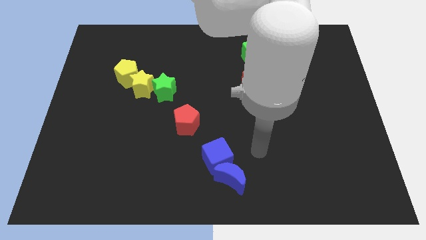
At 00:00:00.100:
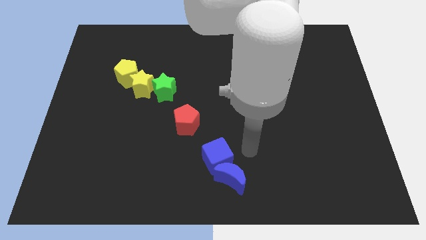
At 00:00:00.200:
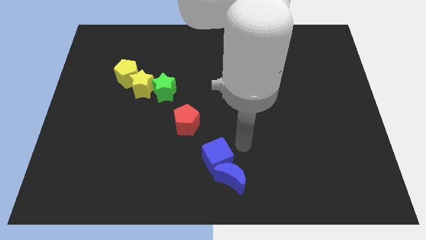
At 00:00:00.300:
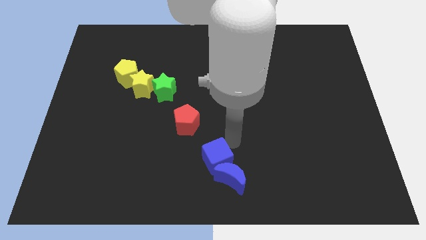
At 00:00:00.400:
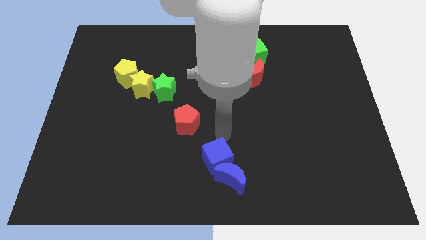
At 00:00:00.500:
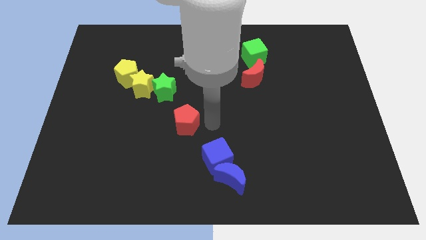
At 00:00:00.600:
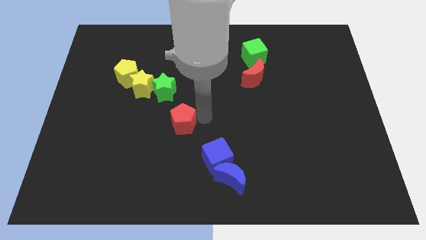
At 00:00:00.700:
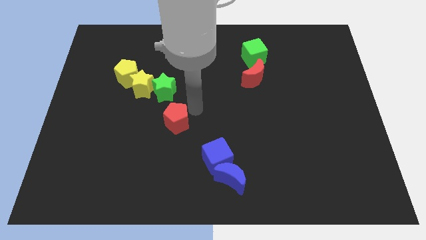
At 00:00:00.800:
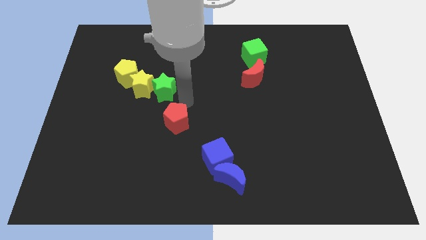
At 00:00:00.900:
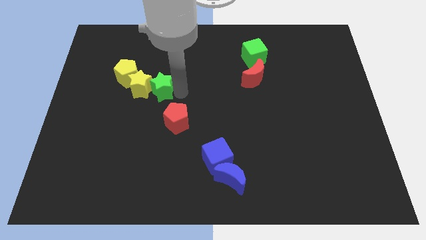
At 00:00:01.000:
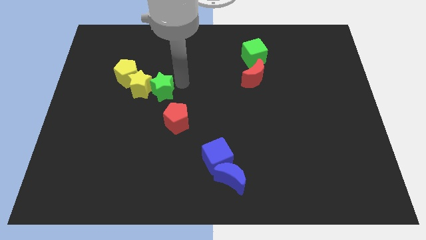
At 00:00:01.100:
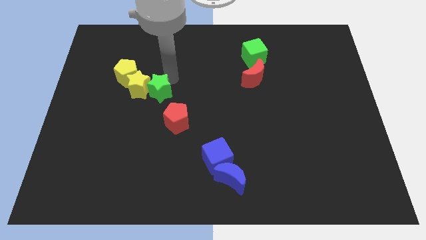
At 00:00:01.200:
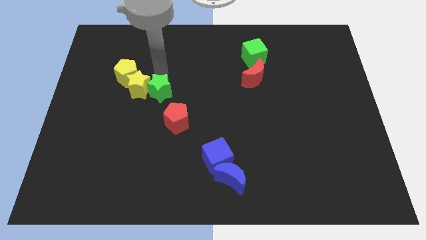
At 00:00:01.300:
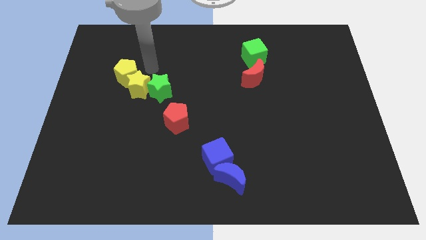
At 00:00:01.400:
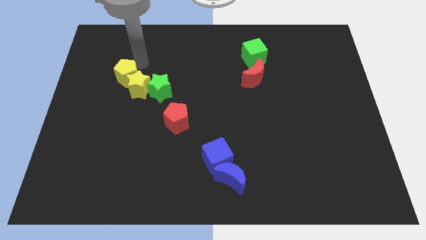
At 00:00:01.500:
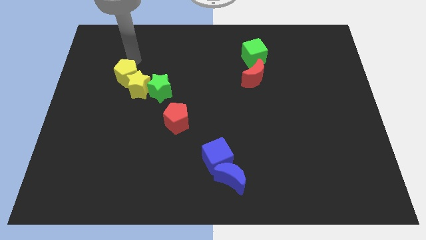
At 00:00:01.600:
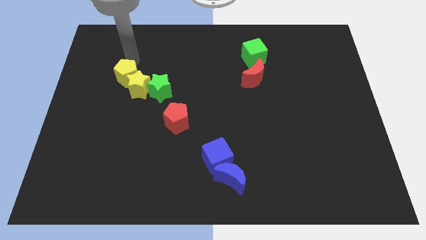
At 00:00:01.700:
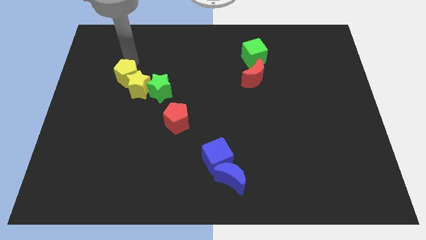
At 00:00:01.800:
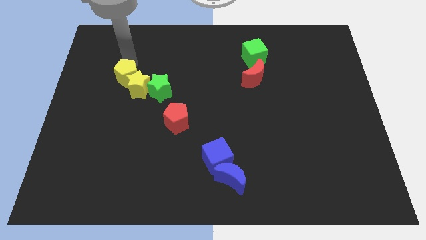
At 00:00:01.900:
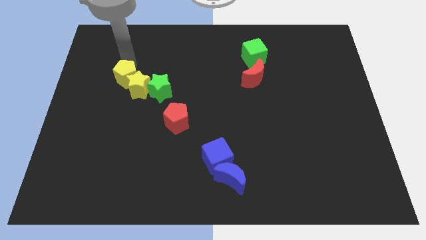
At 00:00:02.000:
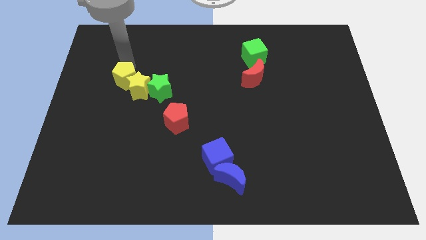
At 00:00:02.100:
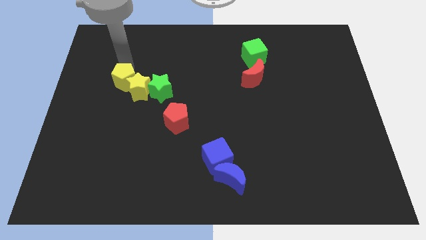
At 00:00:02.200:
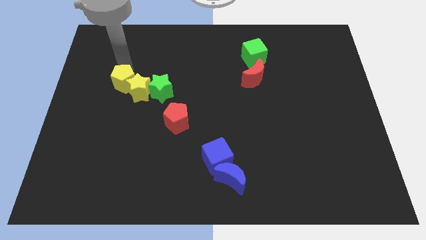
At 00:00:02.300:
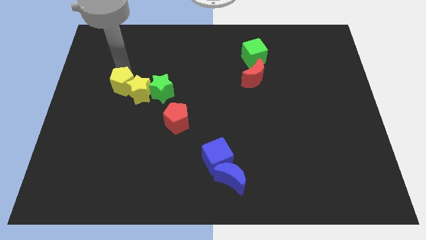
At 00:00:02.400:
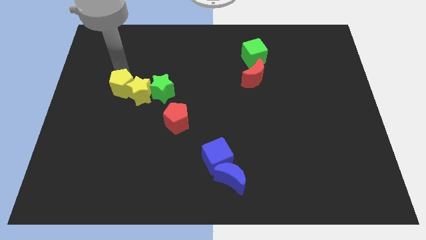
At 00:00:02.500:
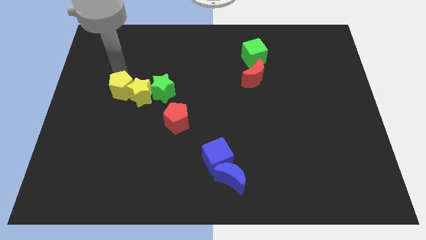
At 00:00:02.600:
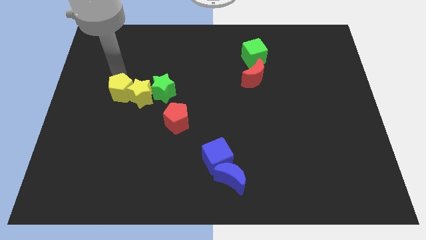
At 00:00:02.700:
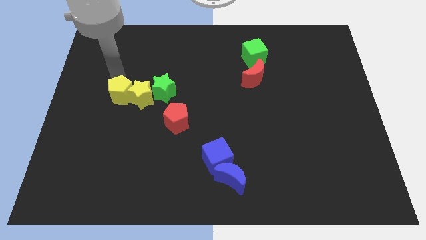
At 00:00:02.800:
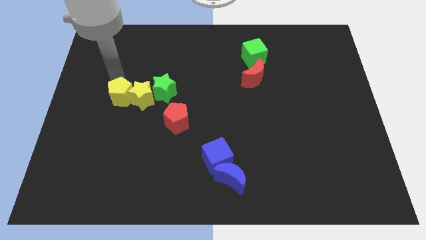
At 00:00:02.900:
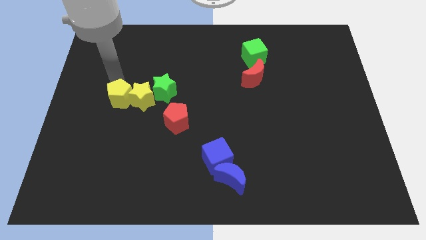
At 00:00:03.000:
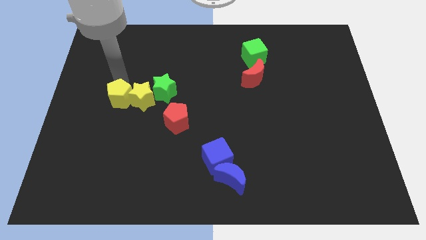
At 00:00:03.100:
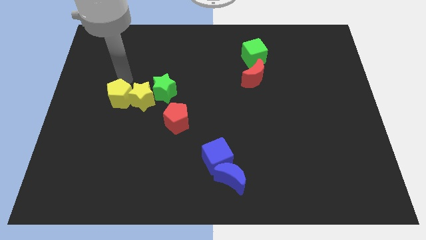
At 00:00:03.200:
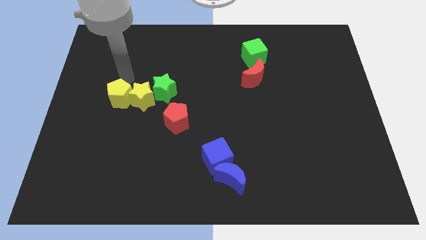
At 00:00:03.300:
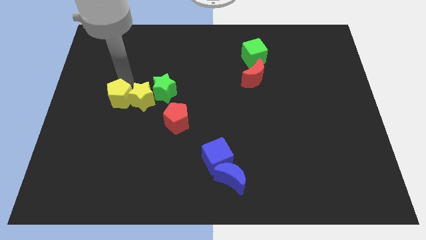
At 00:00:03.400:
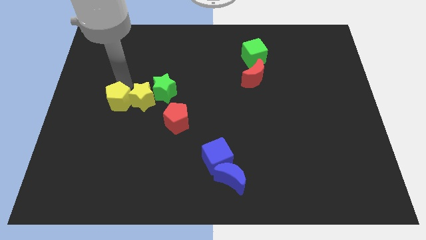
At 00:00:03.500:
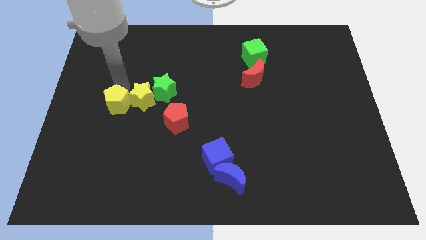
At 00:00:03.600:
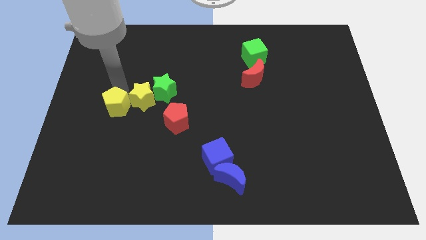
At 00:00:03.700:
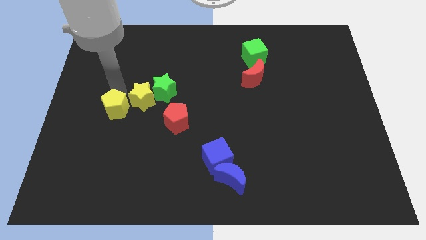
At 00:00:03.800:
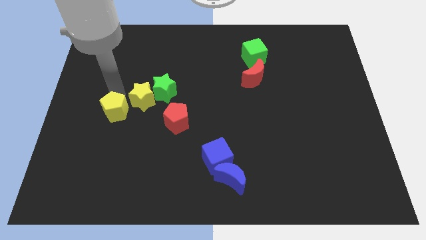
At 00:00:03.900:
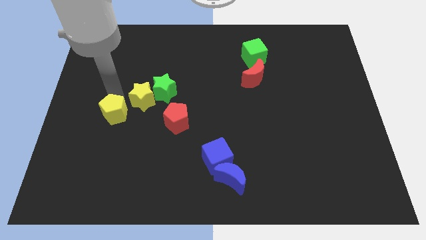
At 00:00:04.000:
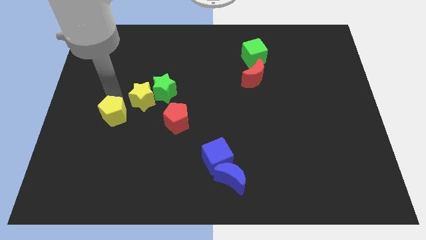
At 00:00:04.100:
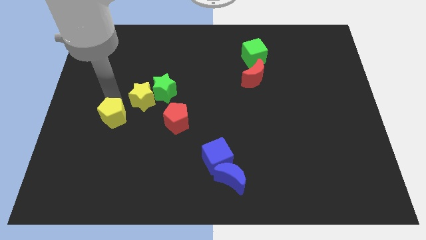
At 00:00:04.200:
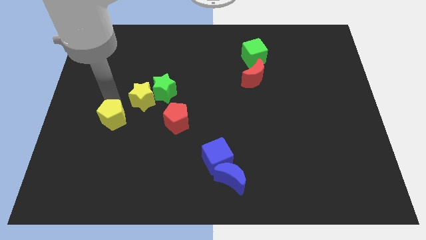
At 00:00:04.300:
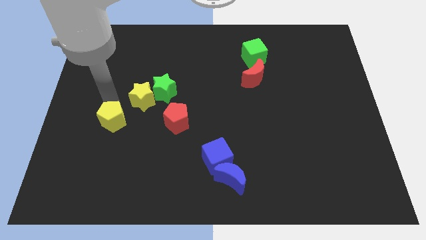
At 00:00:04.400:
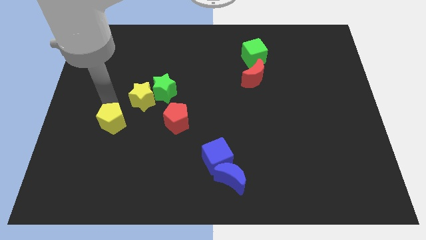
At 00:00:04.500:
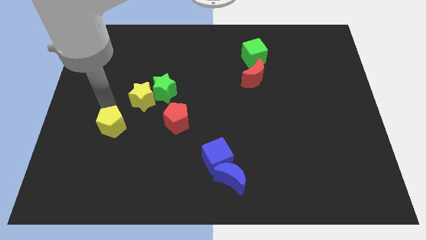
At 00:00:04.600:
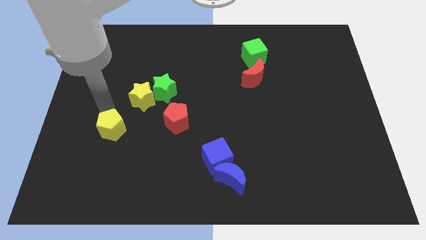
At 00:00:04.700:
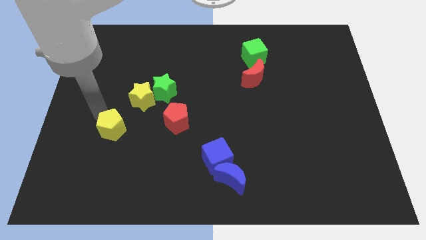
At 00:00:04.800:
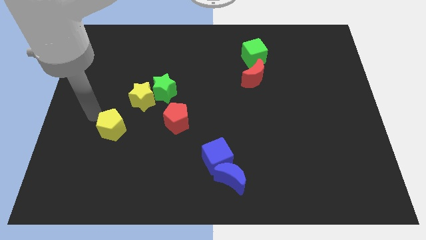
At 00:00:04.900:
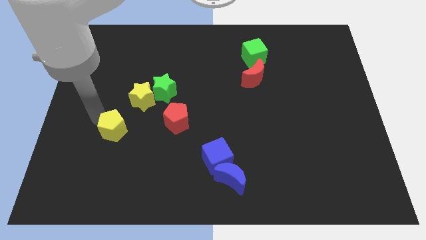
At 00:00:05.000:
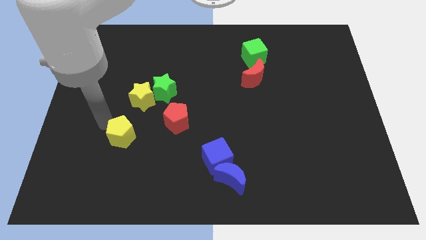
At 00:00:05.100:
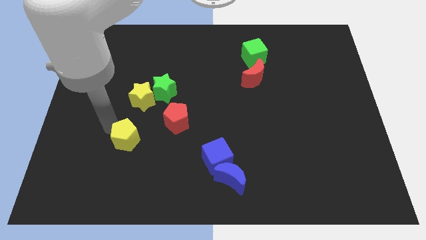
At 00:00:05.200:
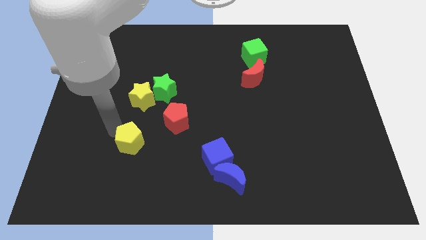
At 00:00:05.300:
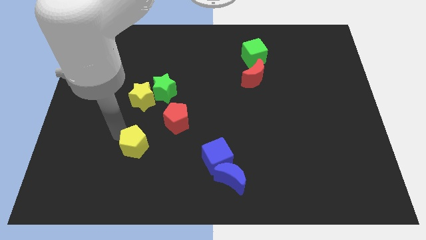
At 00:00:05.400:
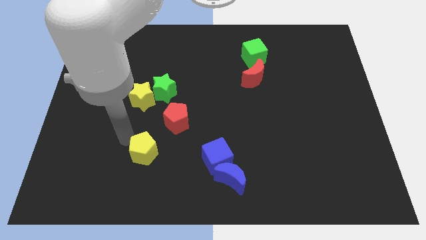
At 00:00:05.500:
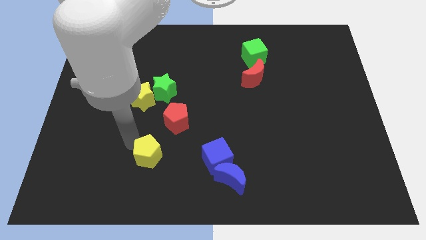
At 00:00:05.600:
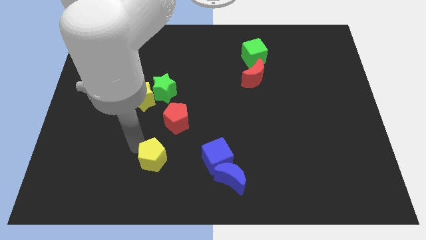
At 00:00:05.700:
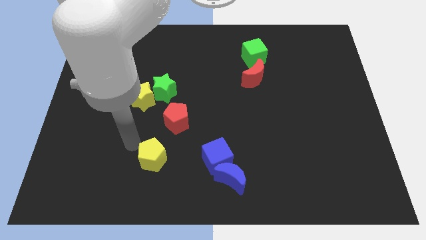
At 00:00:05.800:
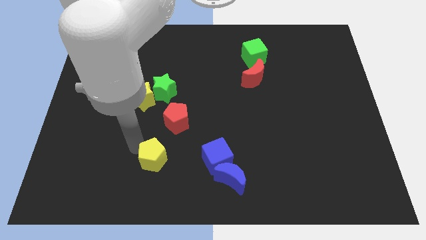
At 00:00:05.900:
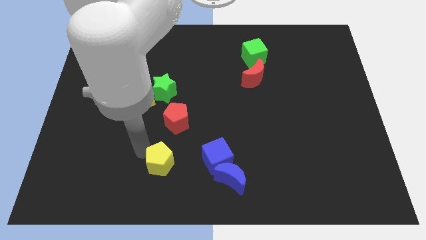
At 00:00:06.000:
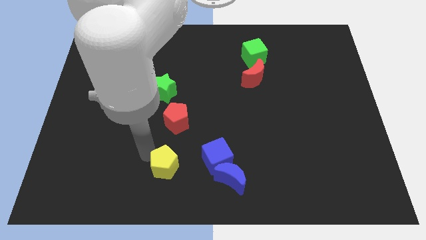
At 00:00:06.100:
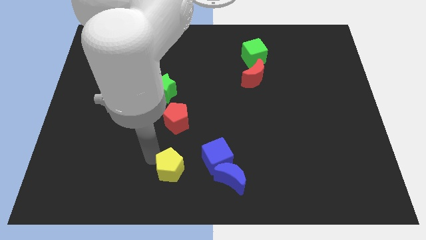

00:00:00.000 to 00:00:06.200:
put the yellow pentagon to the bottom

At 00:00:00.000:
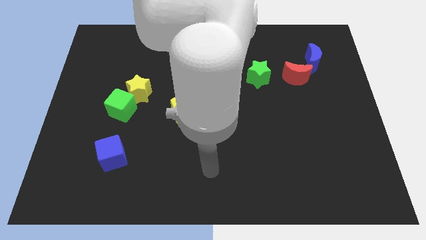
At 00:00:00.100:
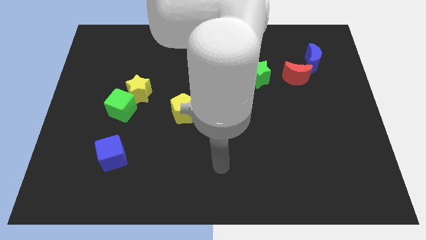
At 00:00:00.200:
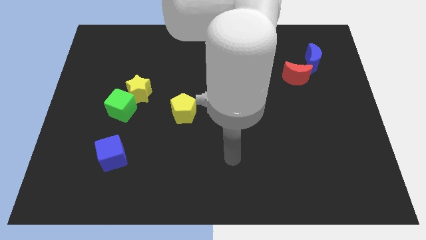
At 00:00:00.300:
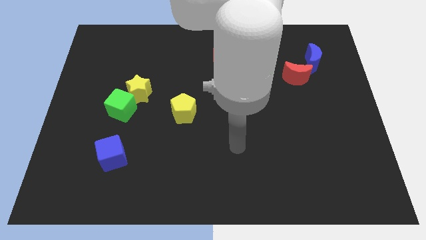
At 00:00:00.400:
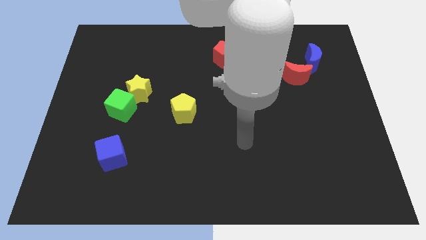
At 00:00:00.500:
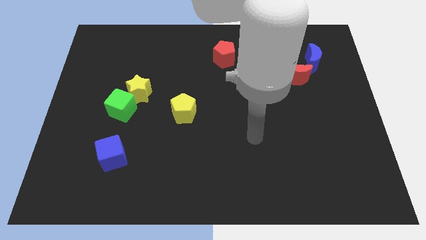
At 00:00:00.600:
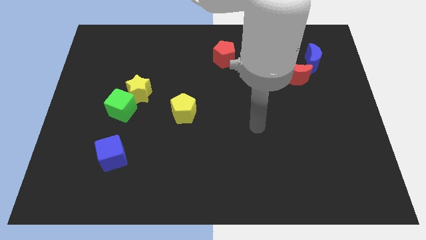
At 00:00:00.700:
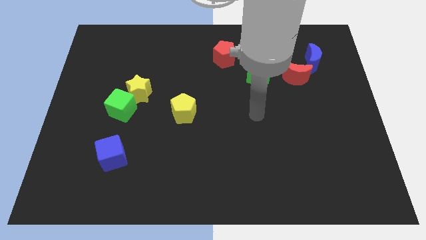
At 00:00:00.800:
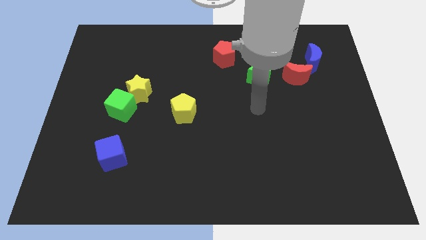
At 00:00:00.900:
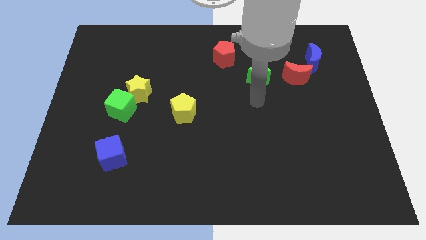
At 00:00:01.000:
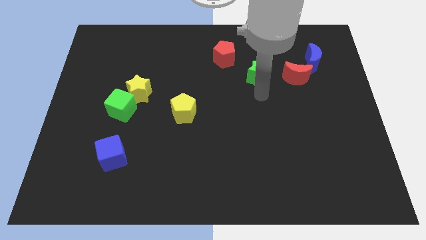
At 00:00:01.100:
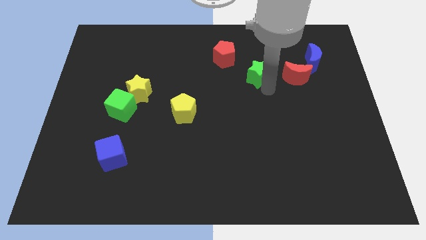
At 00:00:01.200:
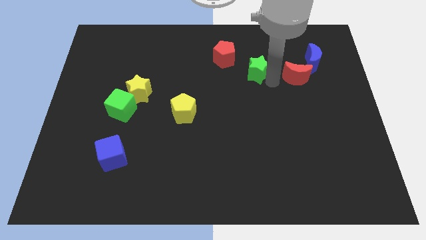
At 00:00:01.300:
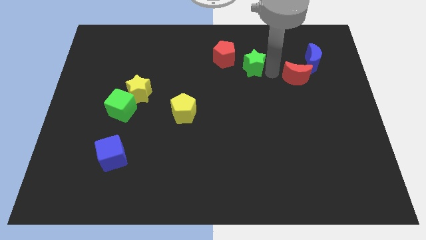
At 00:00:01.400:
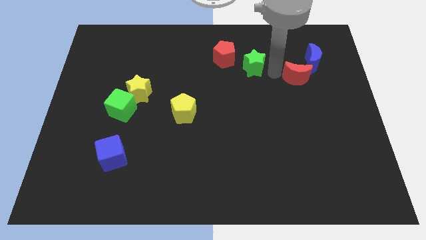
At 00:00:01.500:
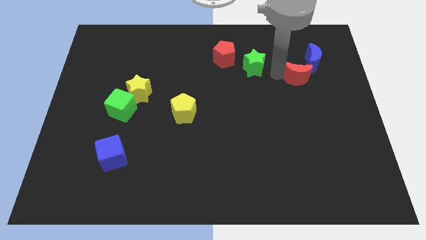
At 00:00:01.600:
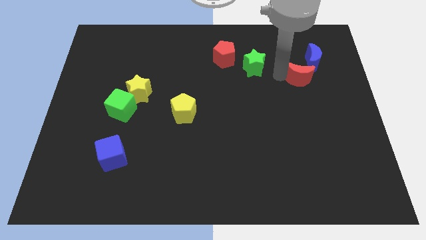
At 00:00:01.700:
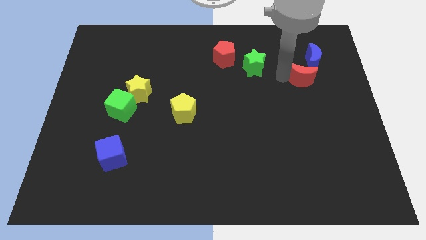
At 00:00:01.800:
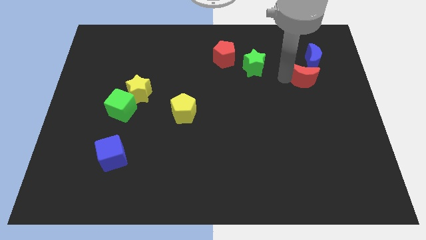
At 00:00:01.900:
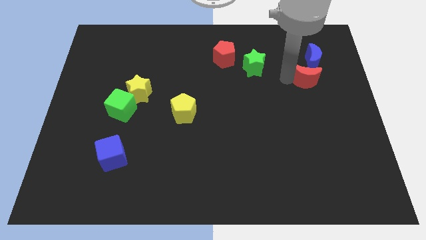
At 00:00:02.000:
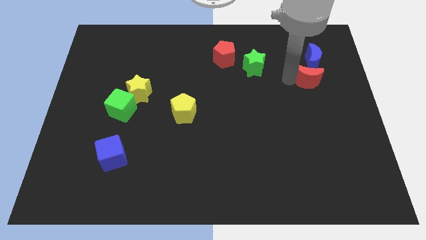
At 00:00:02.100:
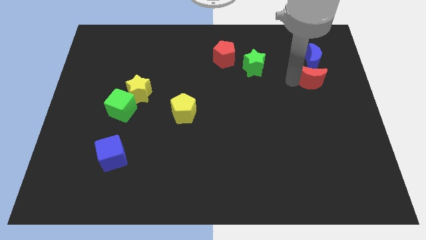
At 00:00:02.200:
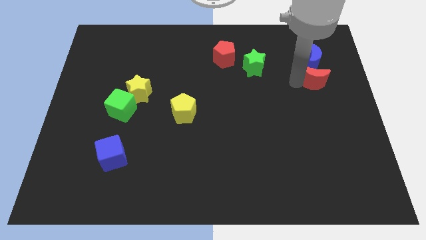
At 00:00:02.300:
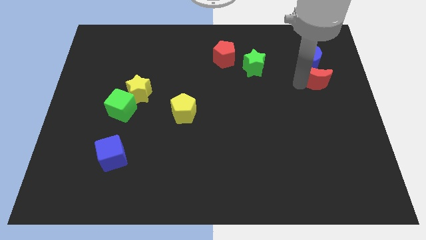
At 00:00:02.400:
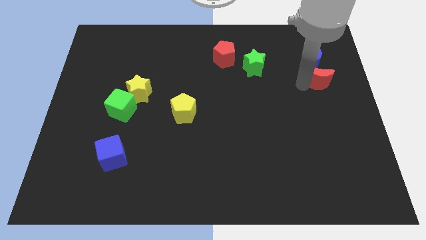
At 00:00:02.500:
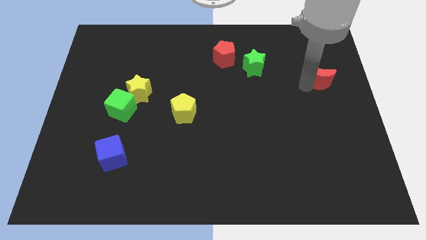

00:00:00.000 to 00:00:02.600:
put the red moon to the right side of the board
